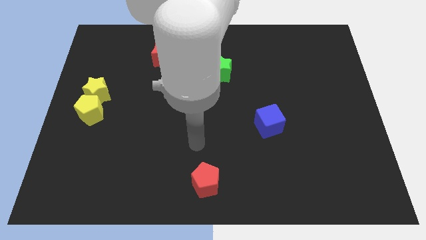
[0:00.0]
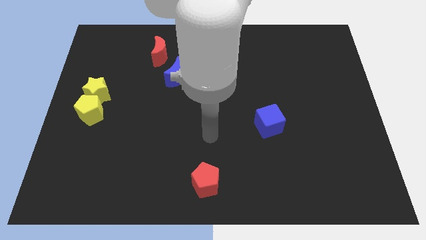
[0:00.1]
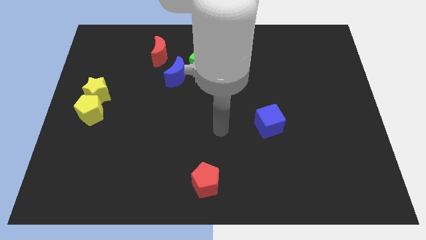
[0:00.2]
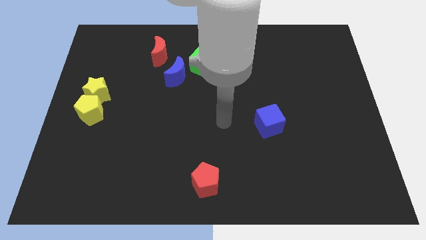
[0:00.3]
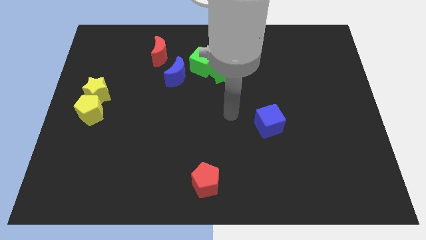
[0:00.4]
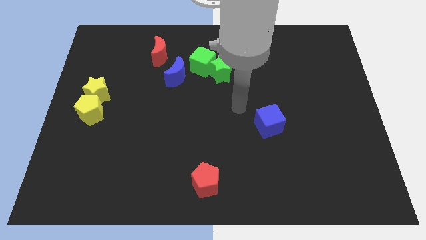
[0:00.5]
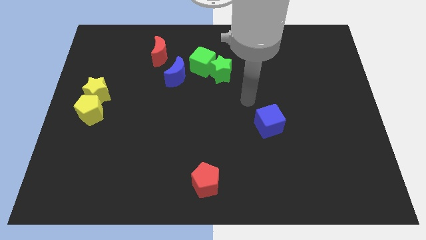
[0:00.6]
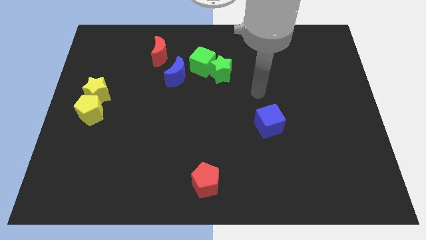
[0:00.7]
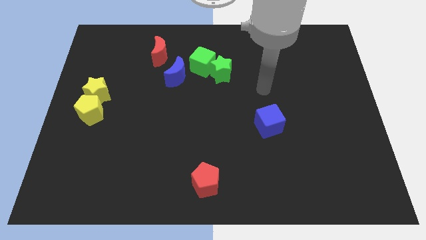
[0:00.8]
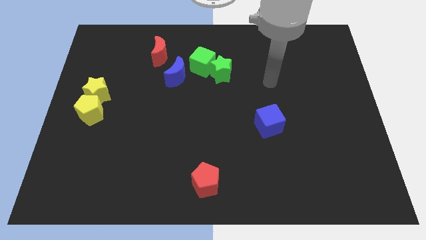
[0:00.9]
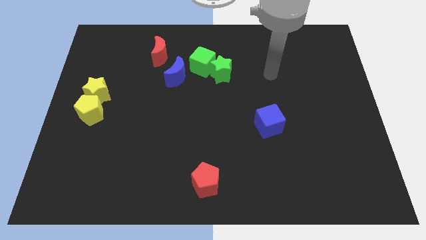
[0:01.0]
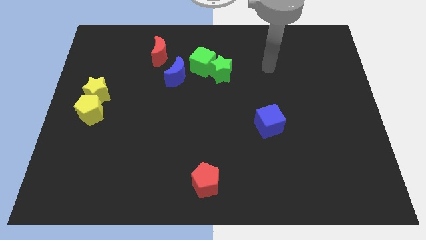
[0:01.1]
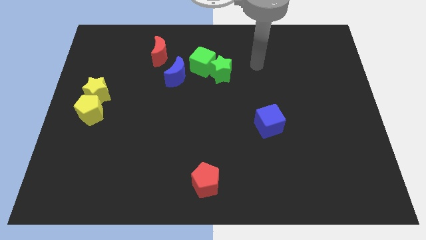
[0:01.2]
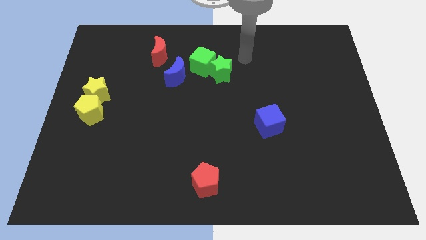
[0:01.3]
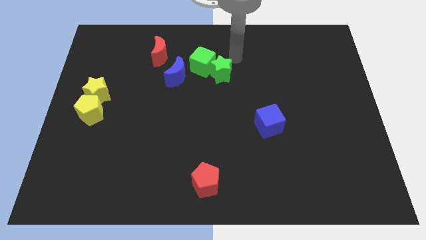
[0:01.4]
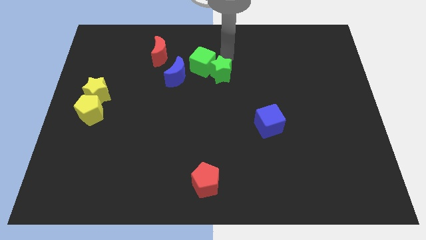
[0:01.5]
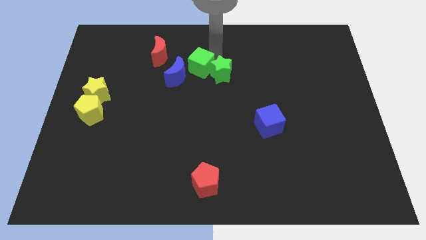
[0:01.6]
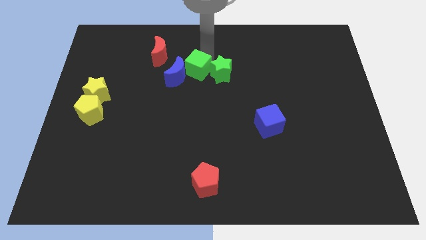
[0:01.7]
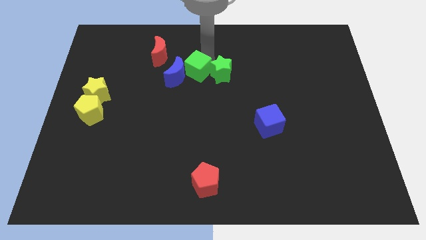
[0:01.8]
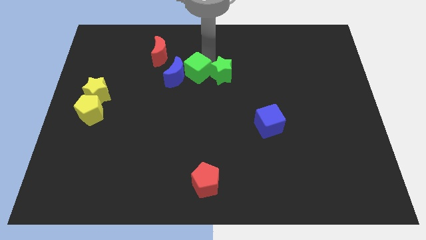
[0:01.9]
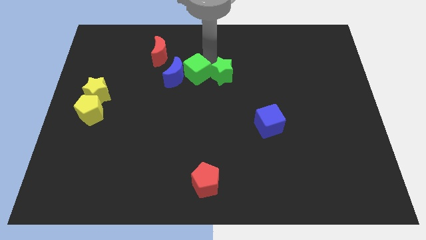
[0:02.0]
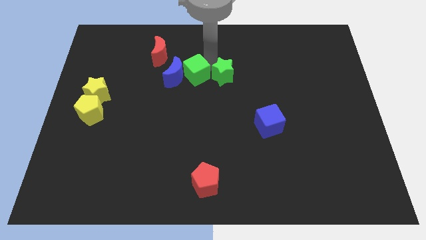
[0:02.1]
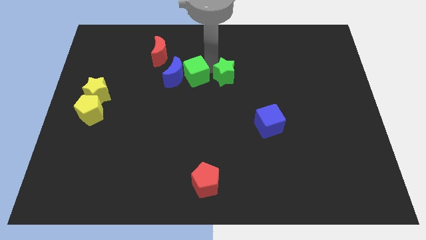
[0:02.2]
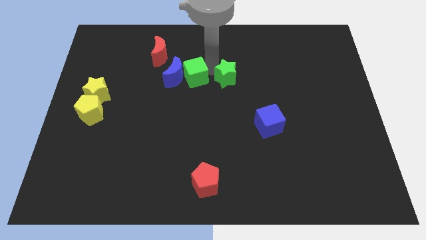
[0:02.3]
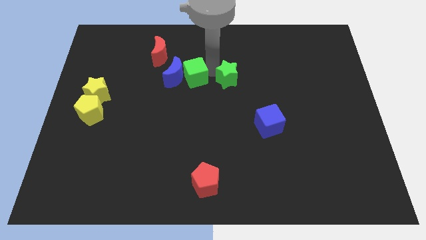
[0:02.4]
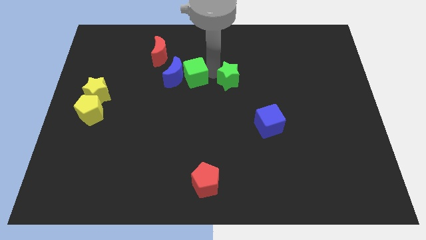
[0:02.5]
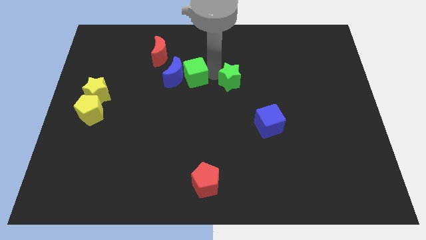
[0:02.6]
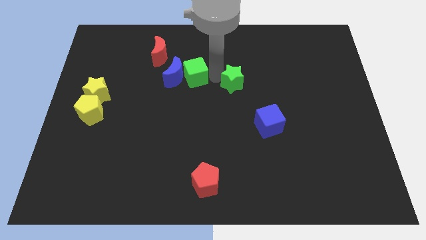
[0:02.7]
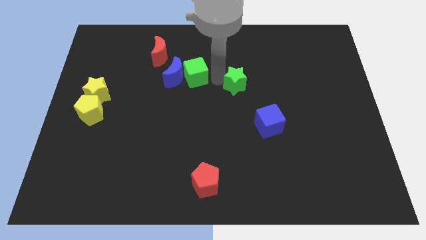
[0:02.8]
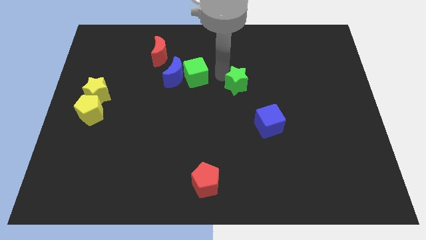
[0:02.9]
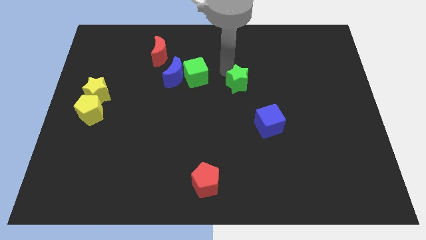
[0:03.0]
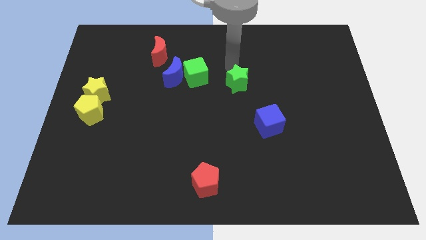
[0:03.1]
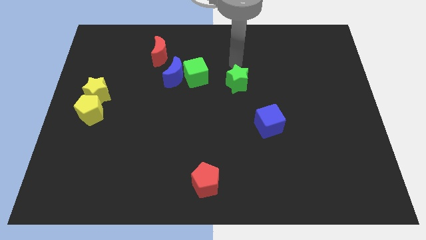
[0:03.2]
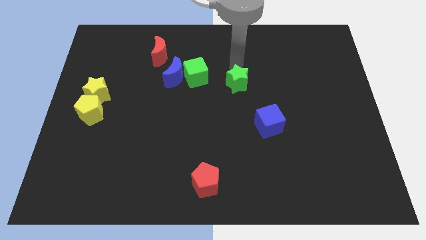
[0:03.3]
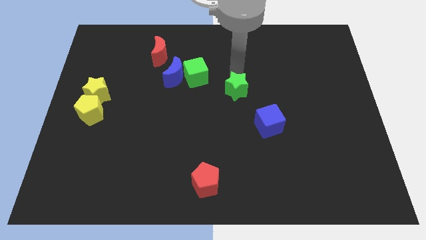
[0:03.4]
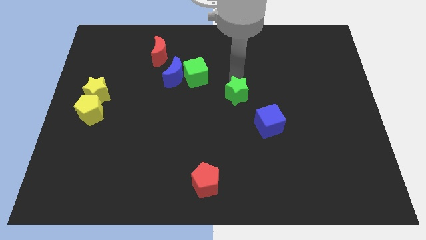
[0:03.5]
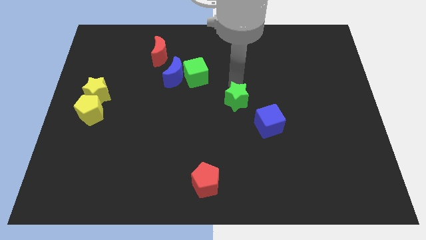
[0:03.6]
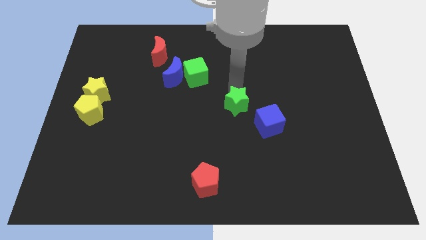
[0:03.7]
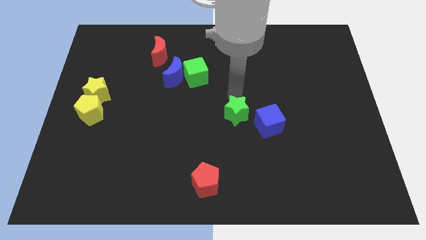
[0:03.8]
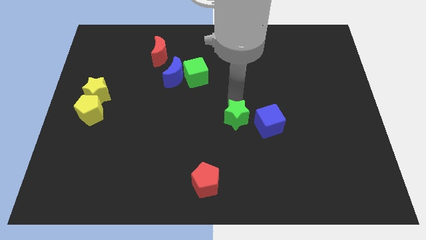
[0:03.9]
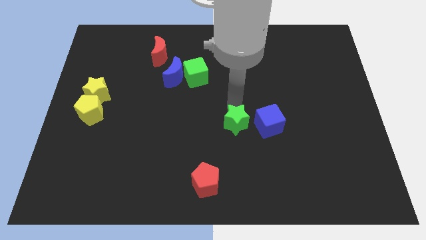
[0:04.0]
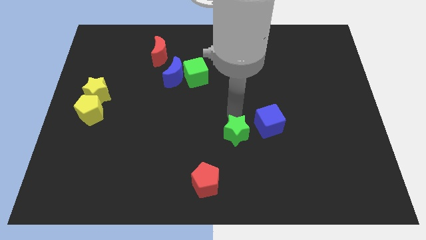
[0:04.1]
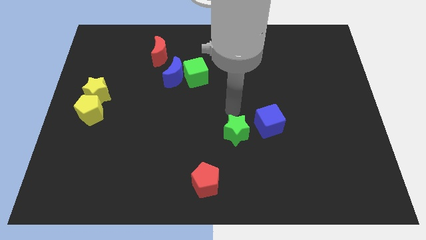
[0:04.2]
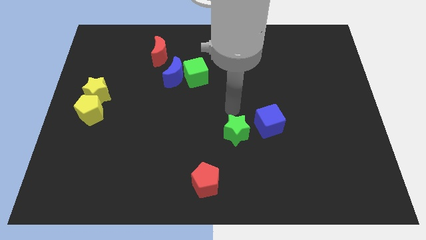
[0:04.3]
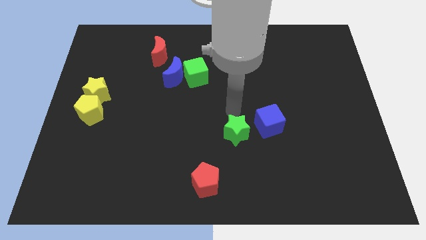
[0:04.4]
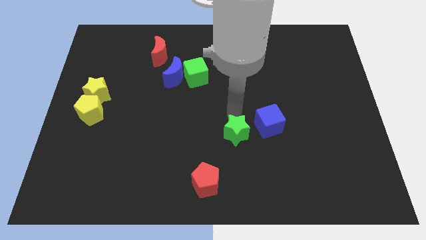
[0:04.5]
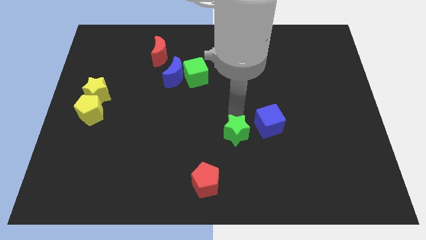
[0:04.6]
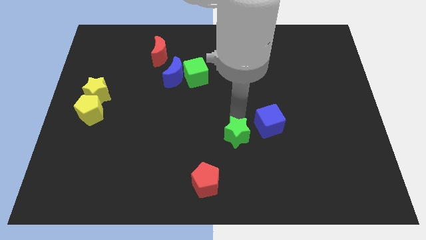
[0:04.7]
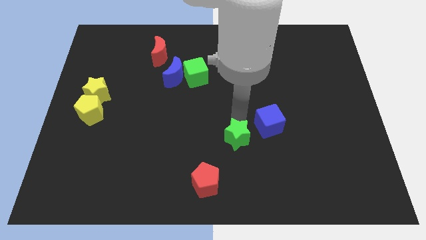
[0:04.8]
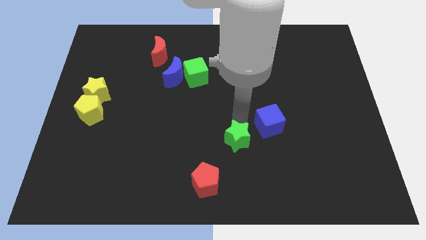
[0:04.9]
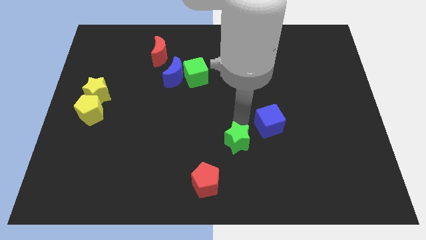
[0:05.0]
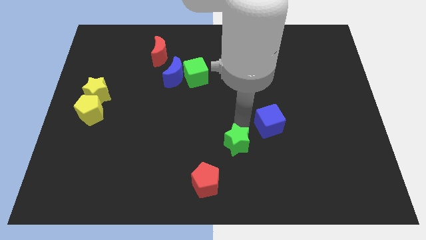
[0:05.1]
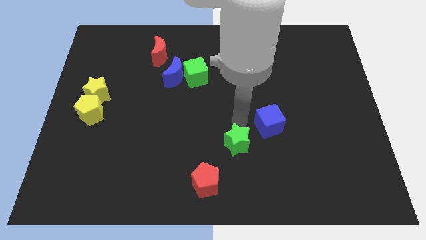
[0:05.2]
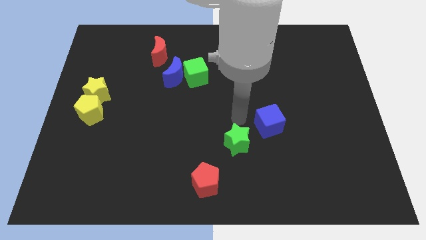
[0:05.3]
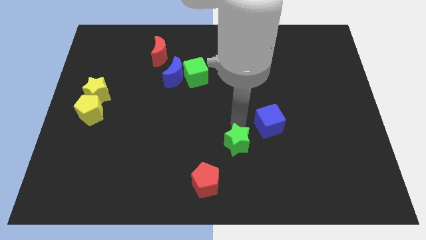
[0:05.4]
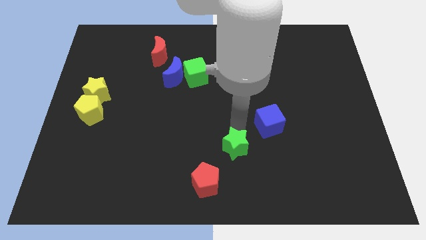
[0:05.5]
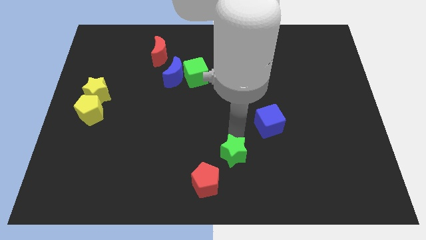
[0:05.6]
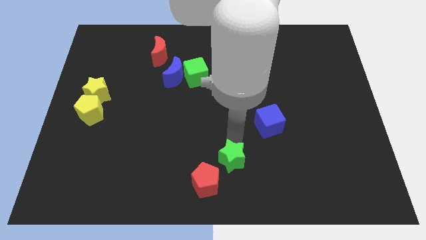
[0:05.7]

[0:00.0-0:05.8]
push the green star to the bottom
